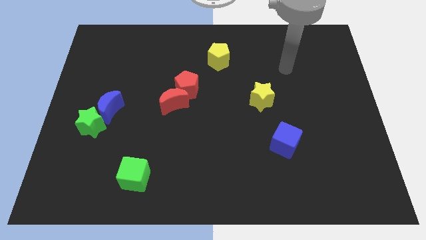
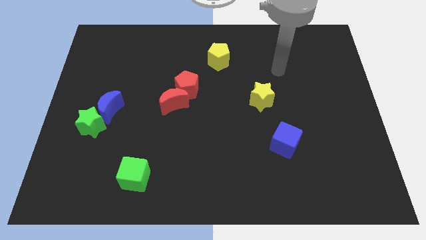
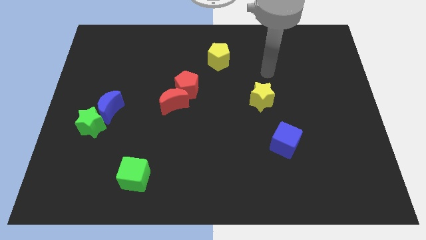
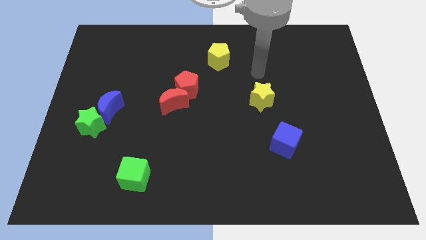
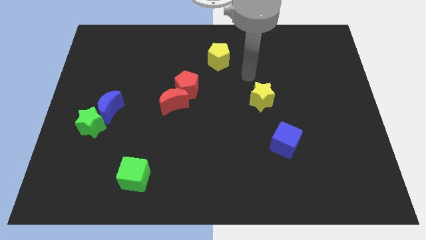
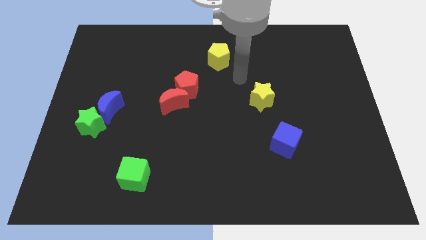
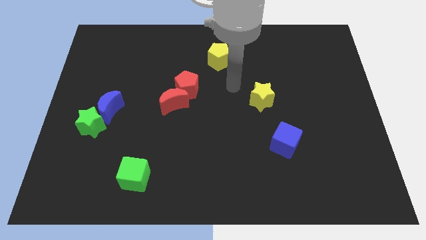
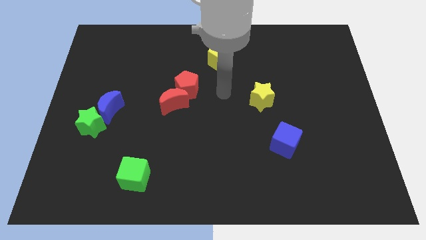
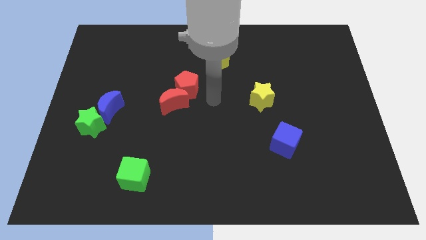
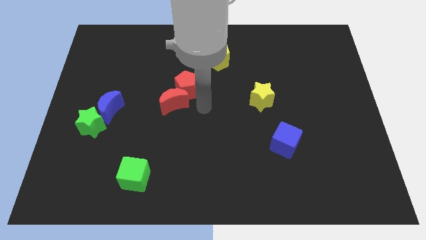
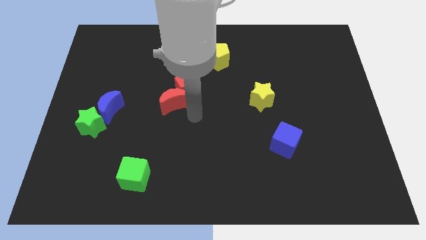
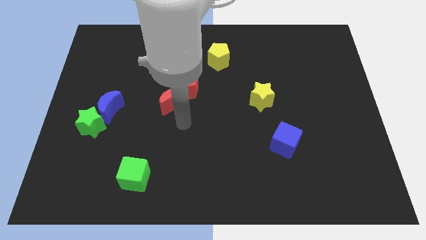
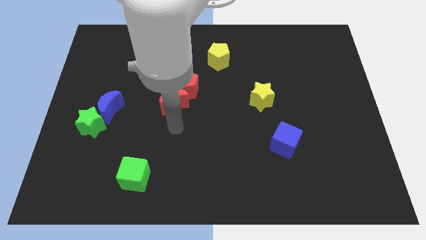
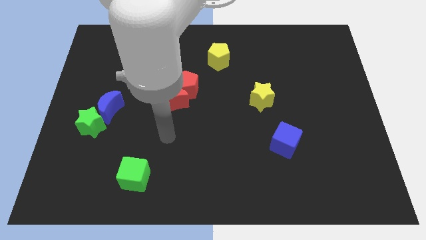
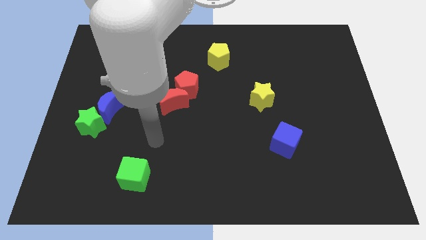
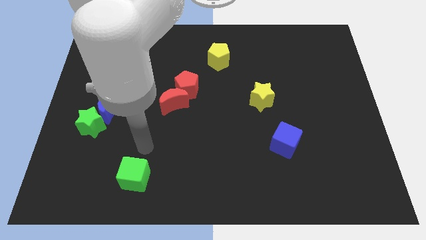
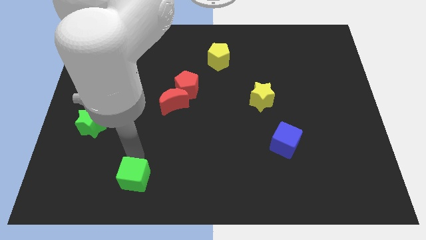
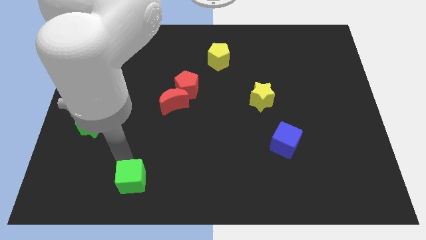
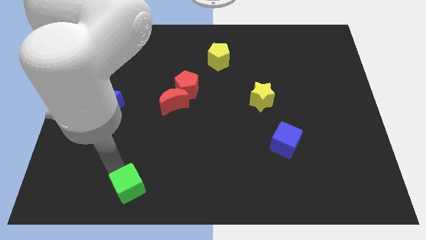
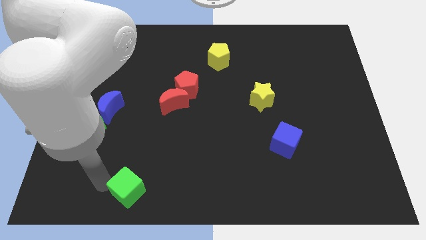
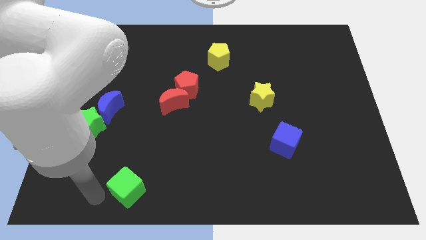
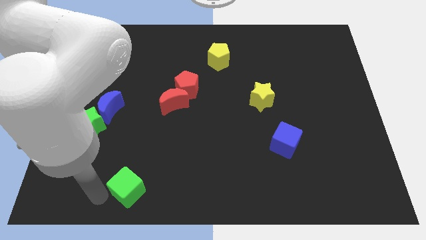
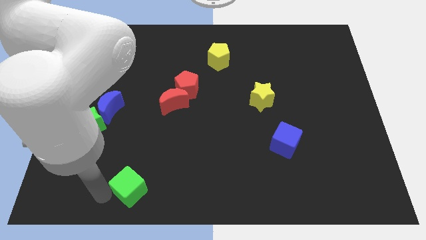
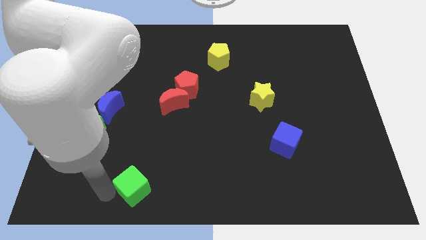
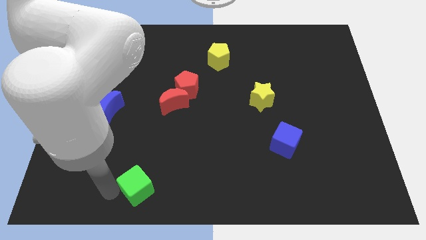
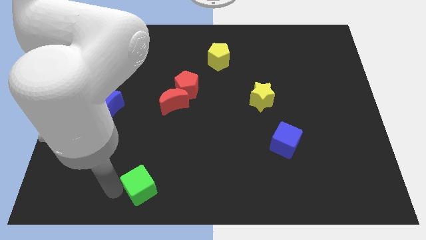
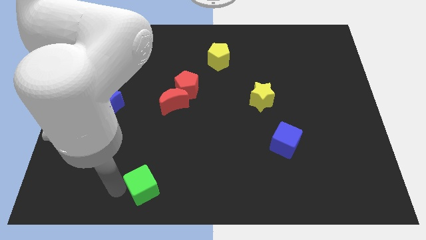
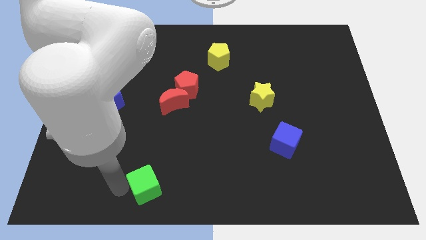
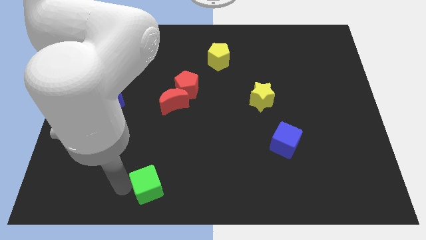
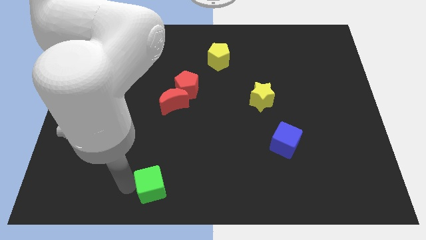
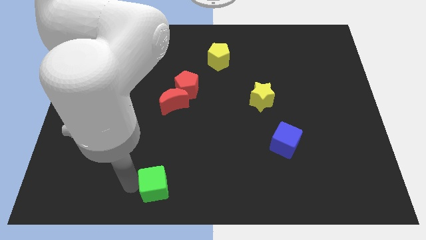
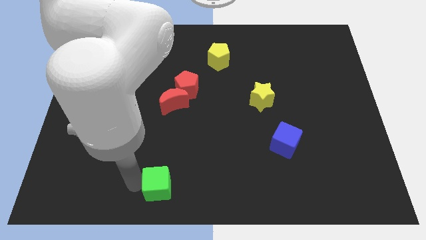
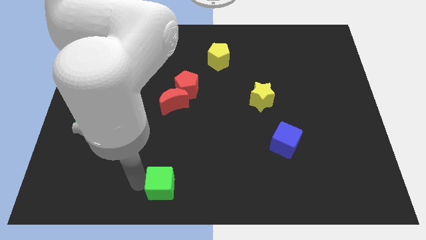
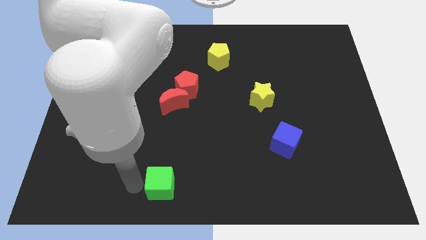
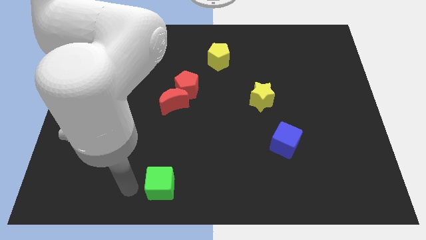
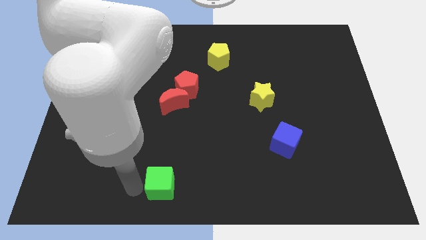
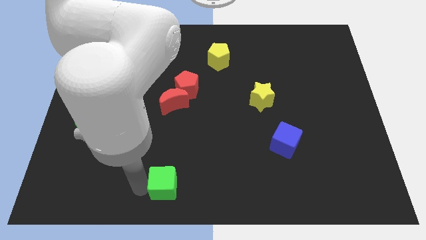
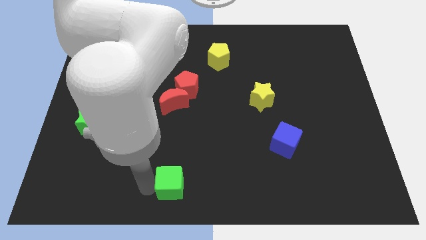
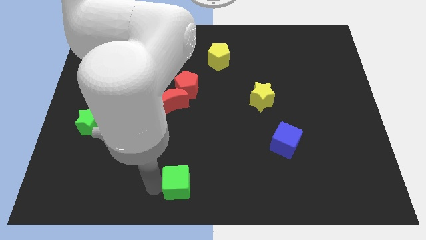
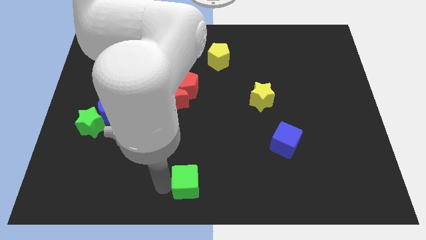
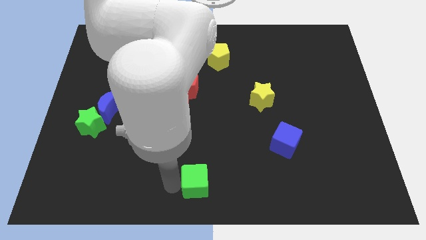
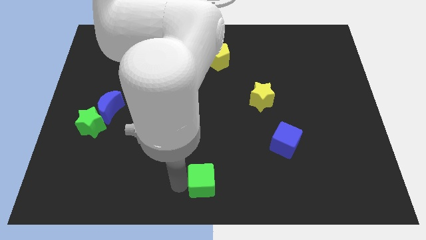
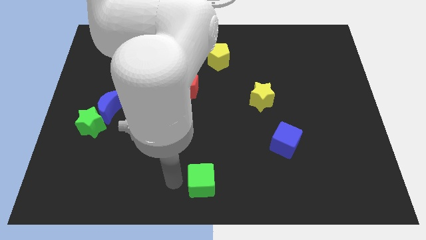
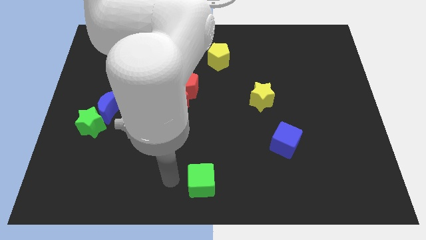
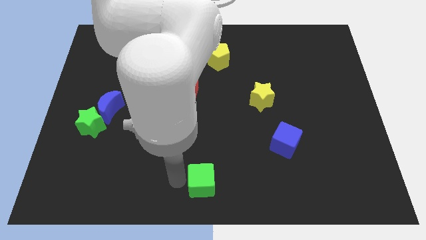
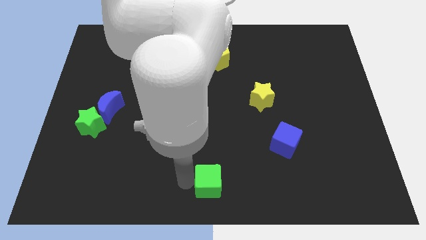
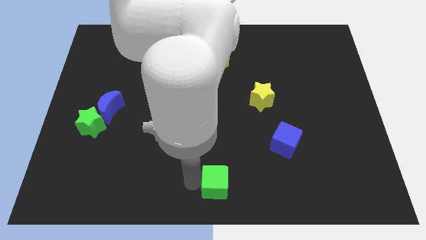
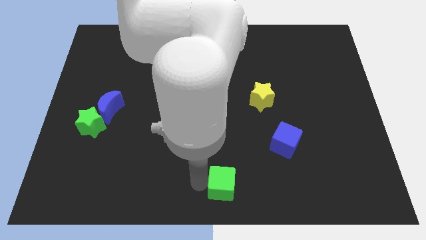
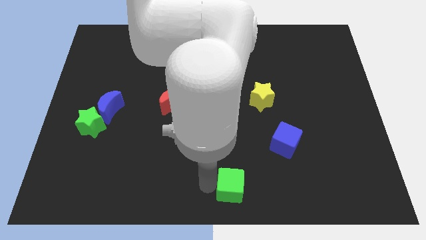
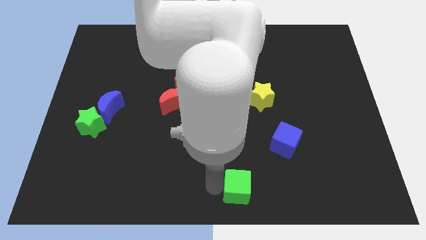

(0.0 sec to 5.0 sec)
push the green cube right

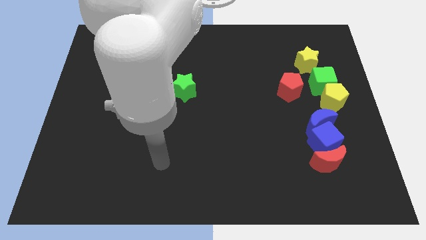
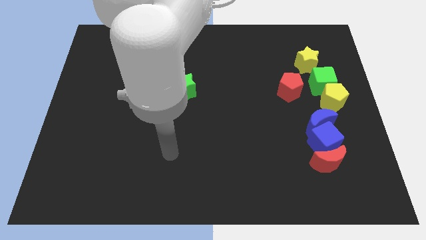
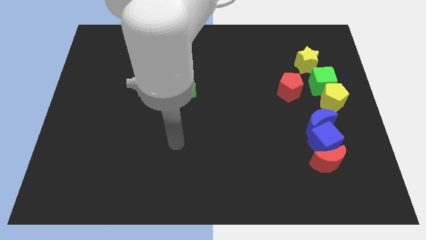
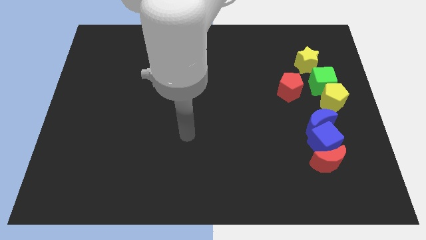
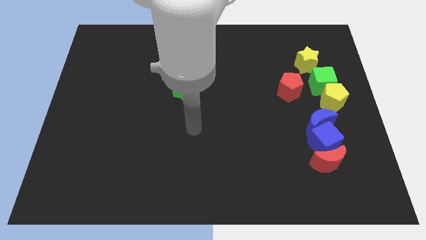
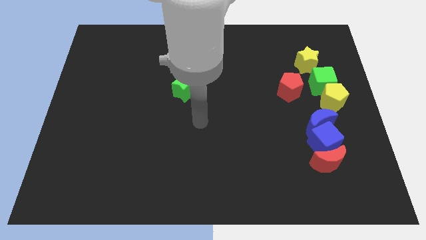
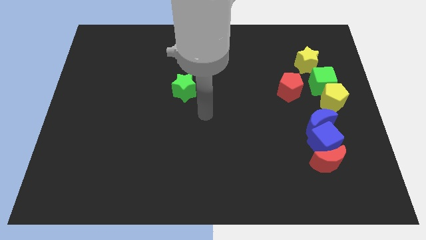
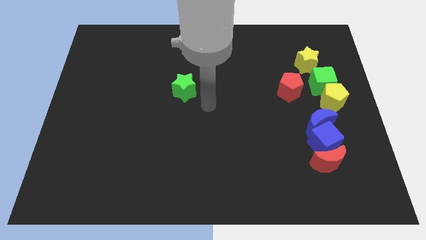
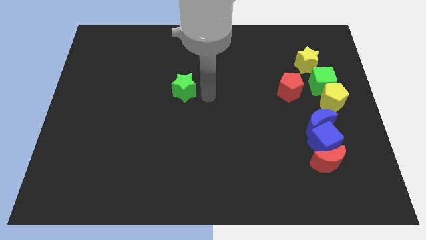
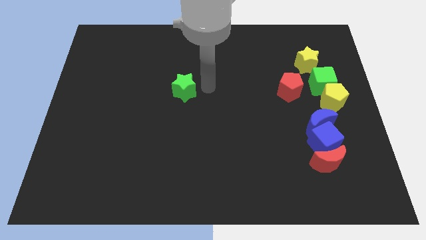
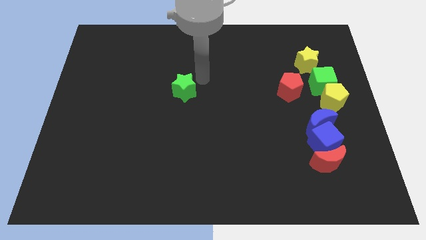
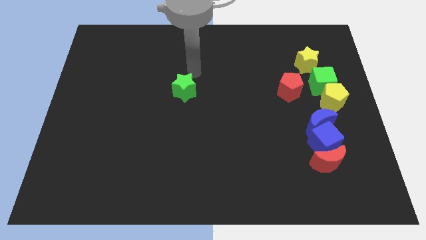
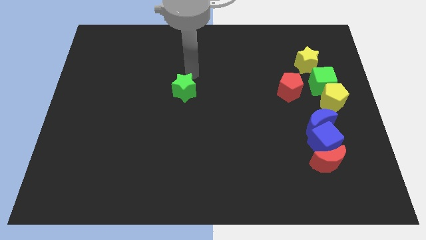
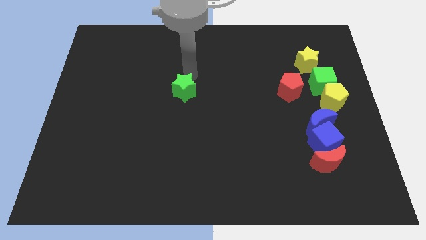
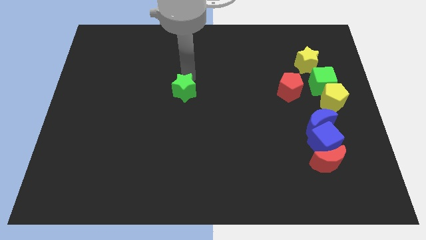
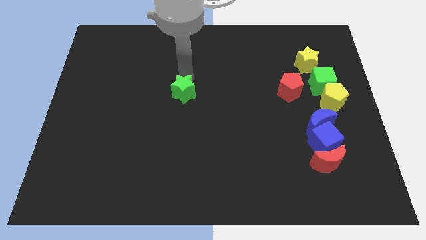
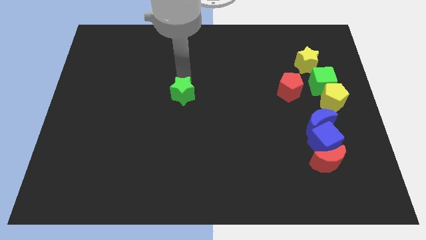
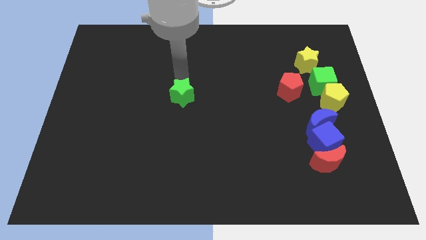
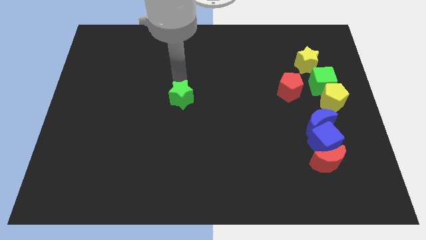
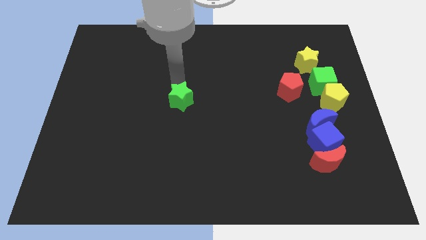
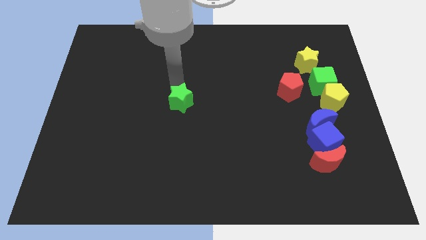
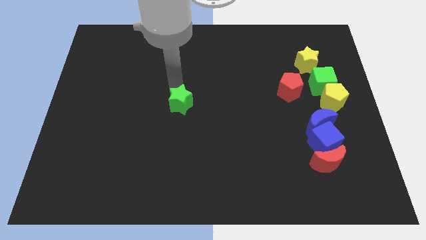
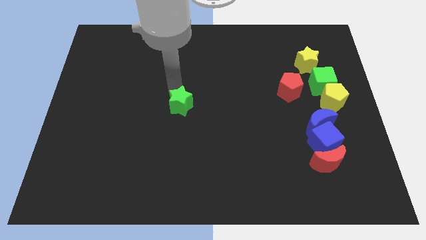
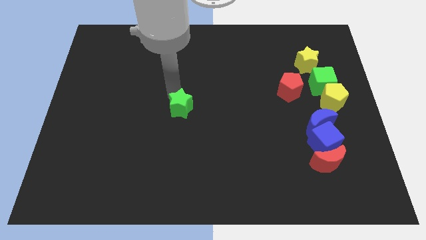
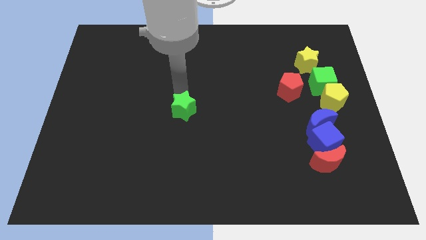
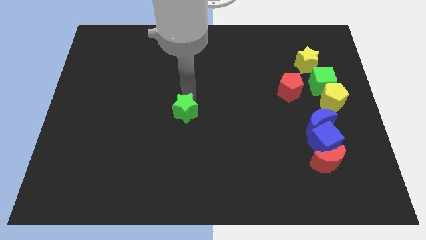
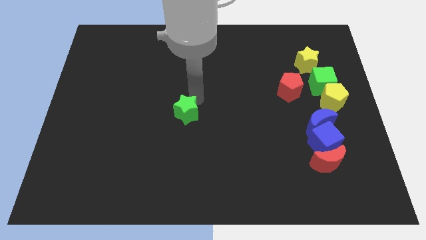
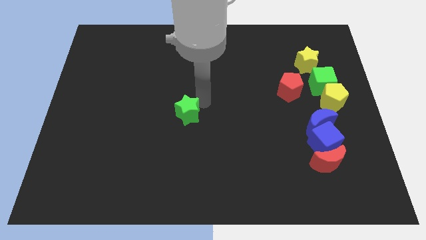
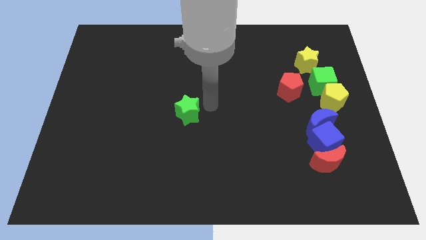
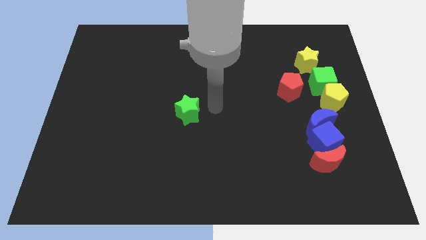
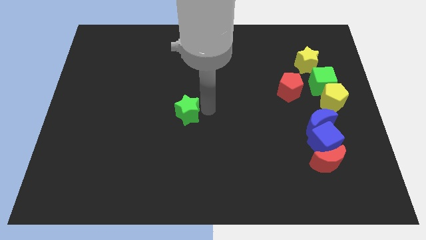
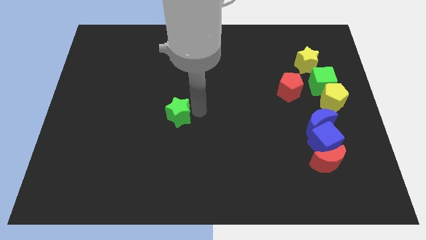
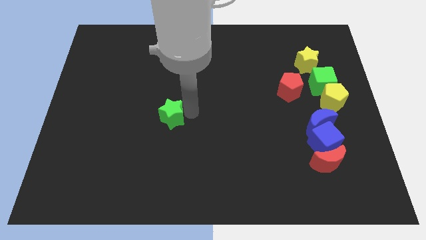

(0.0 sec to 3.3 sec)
push the green star a little bit diagonally downwards and left
